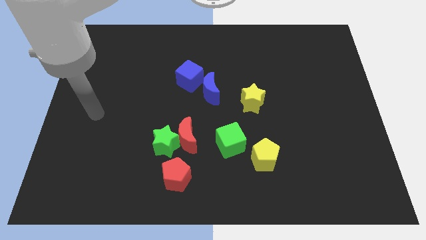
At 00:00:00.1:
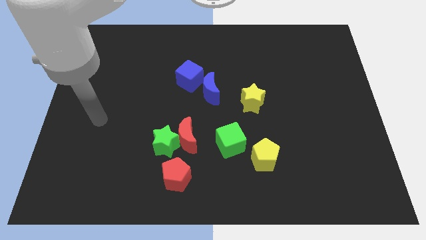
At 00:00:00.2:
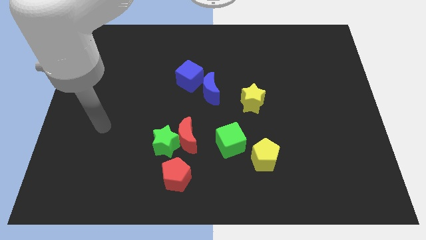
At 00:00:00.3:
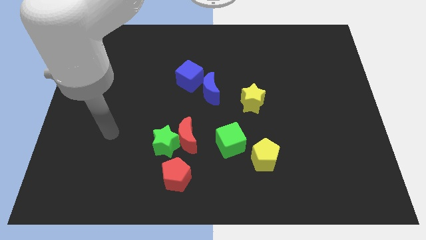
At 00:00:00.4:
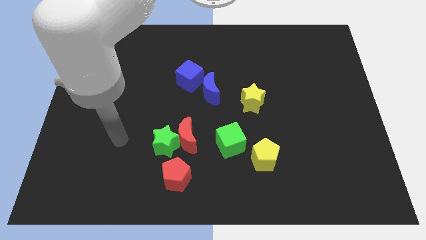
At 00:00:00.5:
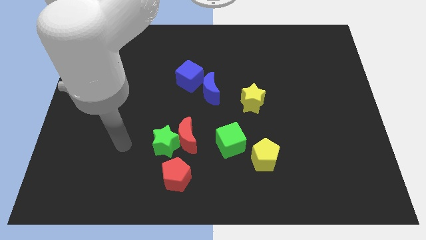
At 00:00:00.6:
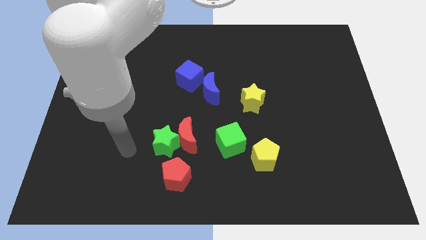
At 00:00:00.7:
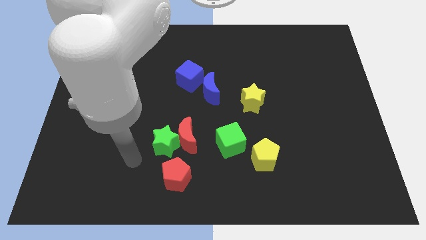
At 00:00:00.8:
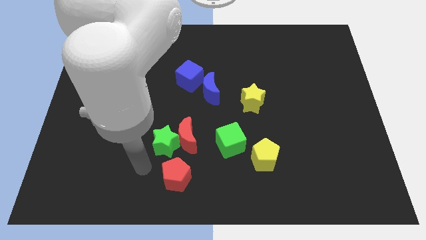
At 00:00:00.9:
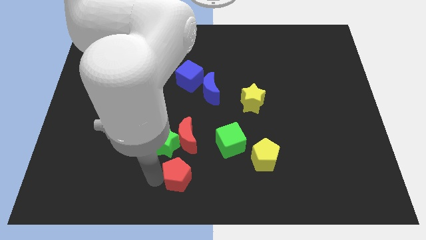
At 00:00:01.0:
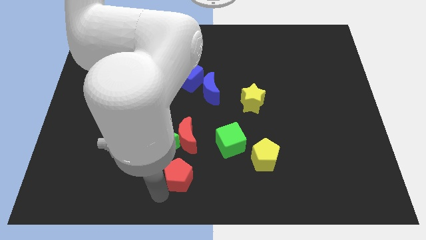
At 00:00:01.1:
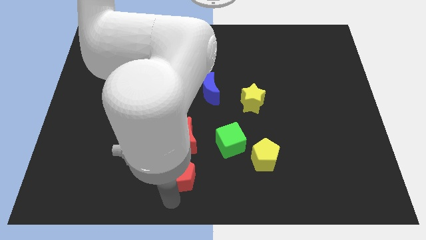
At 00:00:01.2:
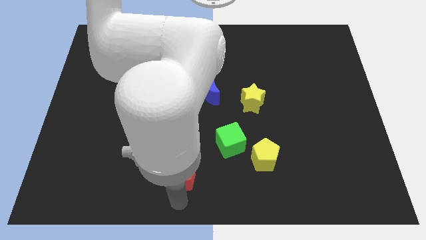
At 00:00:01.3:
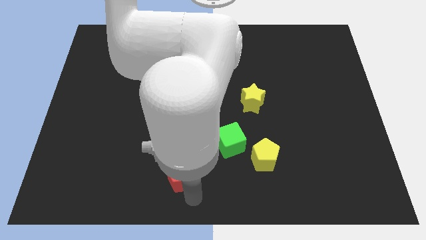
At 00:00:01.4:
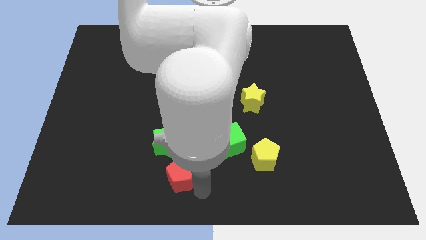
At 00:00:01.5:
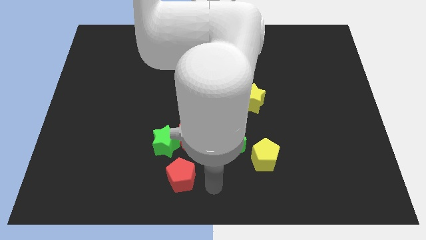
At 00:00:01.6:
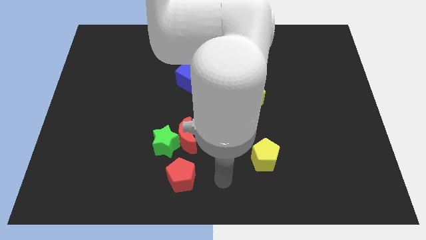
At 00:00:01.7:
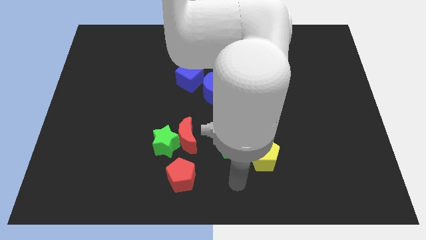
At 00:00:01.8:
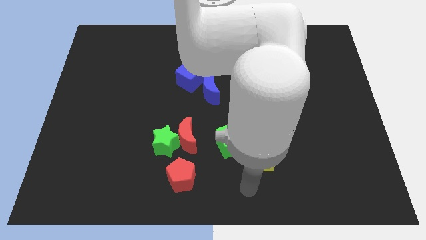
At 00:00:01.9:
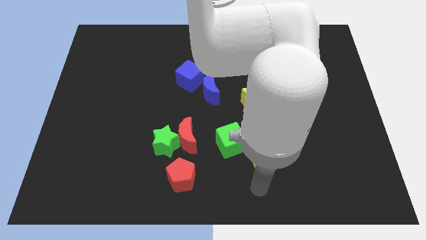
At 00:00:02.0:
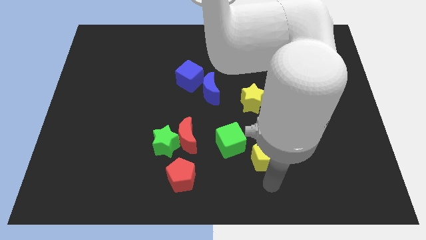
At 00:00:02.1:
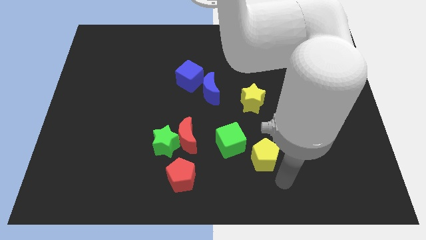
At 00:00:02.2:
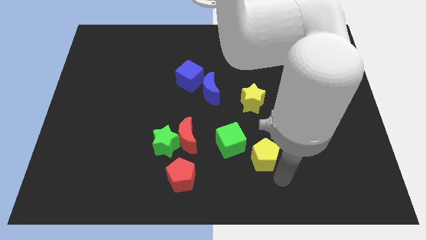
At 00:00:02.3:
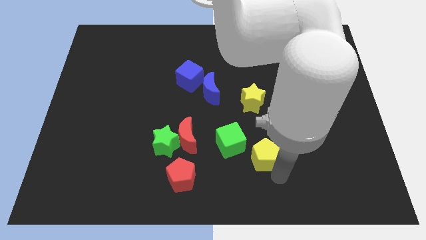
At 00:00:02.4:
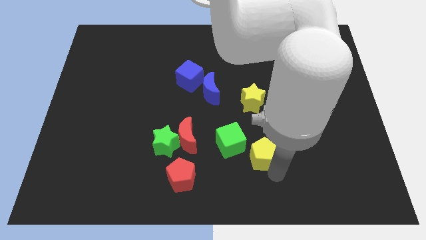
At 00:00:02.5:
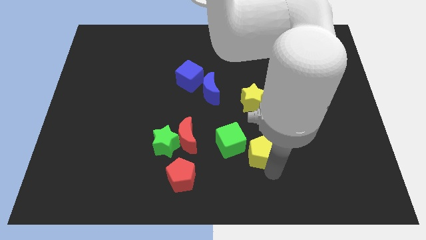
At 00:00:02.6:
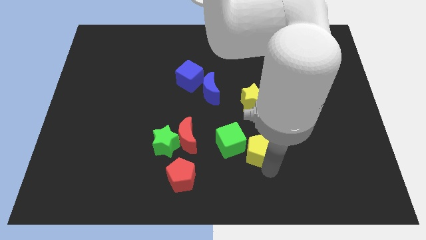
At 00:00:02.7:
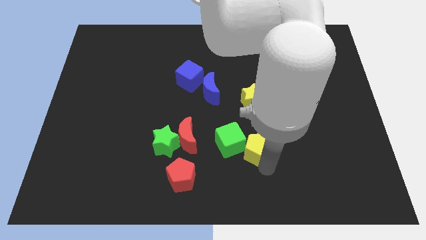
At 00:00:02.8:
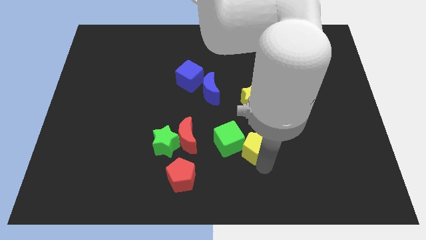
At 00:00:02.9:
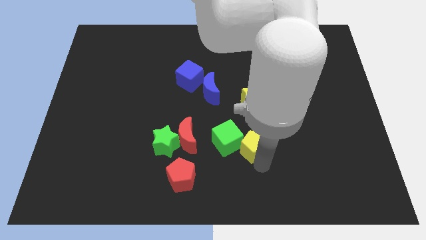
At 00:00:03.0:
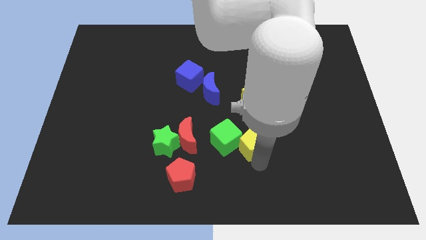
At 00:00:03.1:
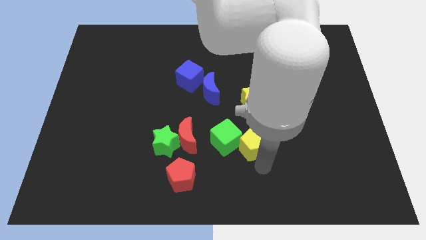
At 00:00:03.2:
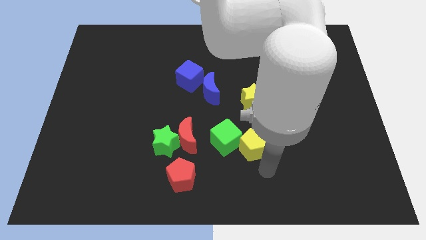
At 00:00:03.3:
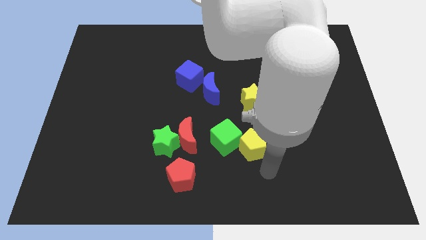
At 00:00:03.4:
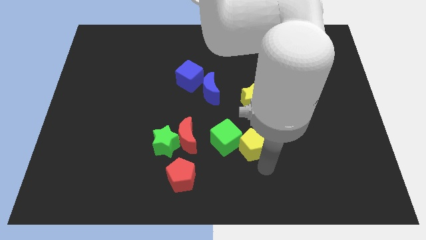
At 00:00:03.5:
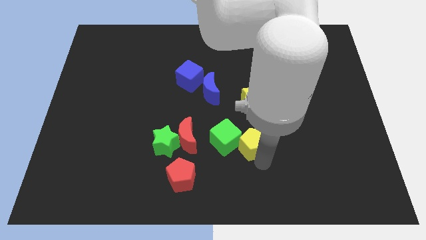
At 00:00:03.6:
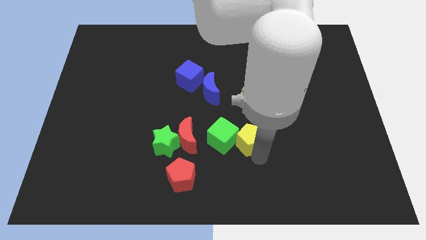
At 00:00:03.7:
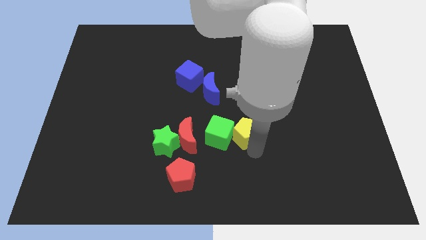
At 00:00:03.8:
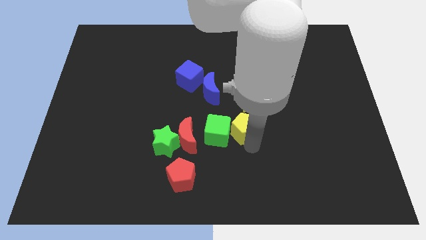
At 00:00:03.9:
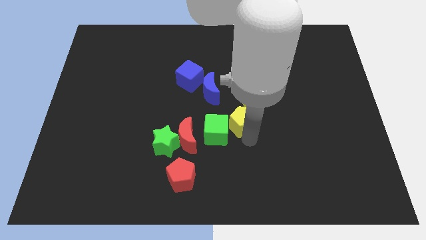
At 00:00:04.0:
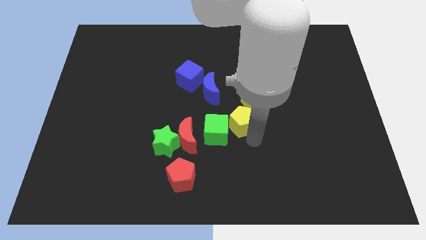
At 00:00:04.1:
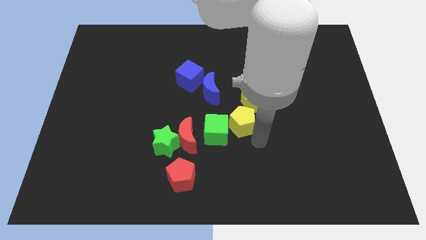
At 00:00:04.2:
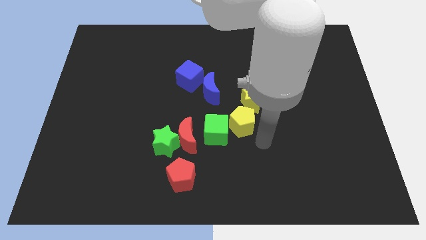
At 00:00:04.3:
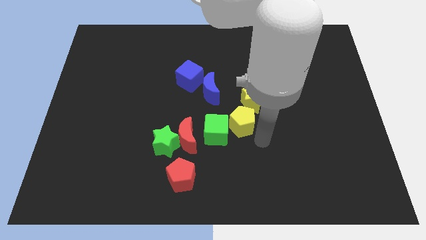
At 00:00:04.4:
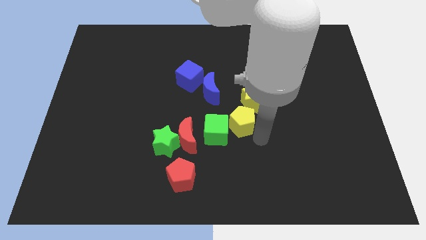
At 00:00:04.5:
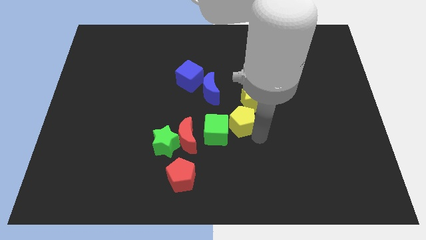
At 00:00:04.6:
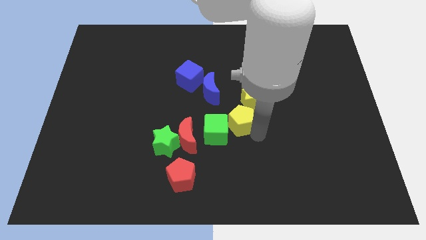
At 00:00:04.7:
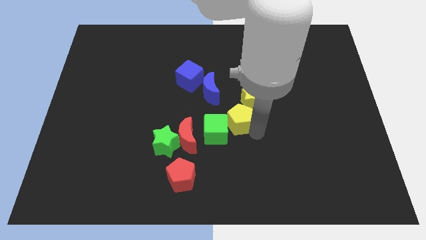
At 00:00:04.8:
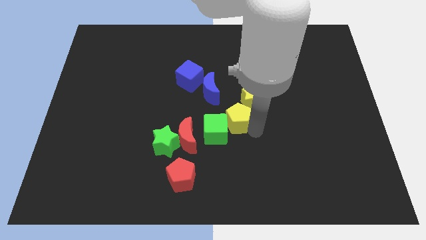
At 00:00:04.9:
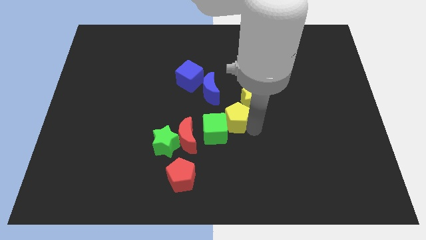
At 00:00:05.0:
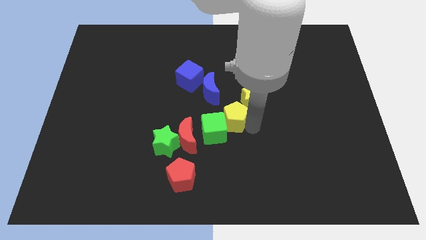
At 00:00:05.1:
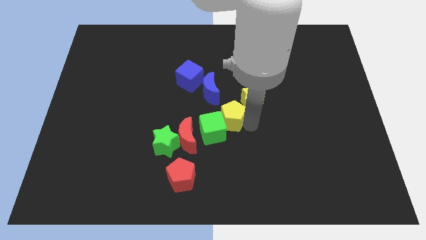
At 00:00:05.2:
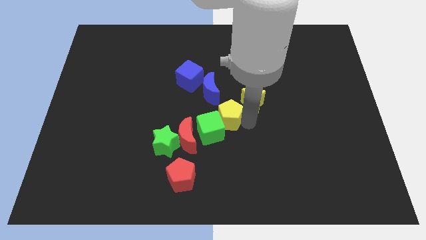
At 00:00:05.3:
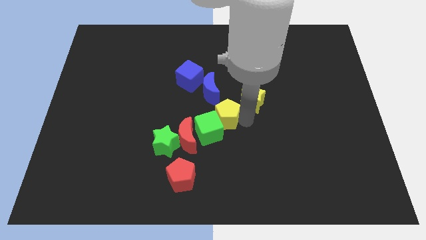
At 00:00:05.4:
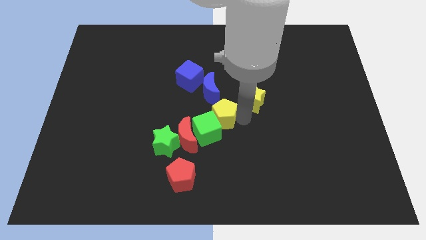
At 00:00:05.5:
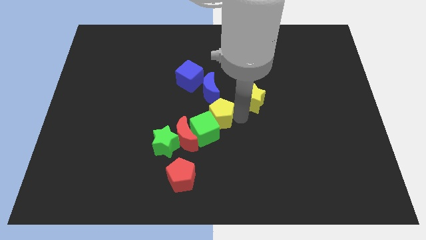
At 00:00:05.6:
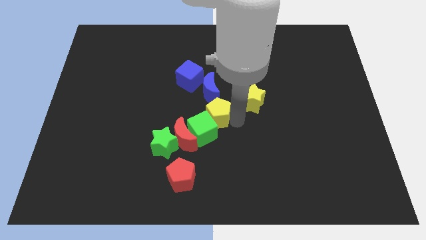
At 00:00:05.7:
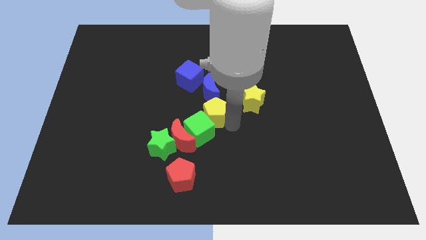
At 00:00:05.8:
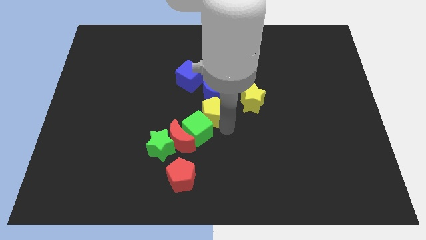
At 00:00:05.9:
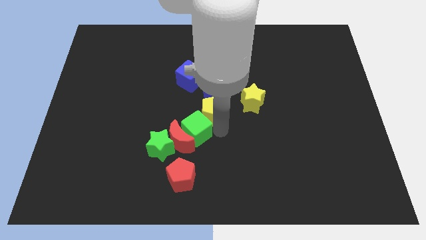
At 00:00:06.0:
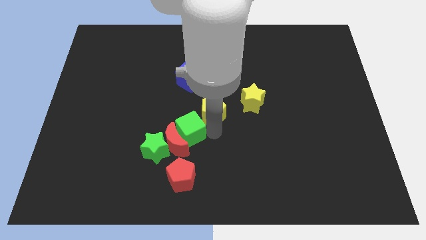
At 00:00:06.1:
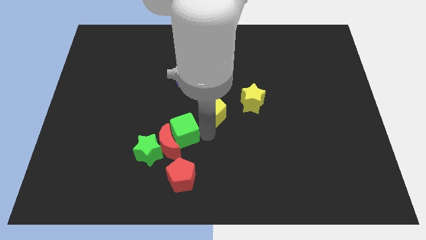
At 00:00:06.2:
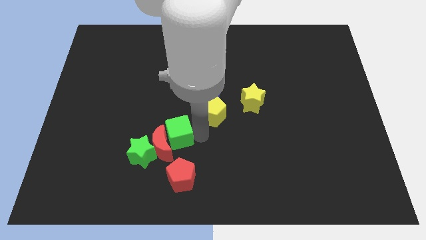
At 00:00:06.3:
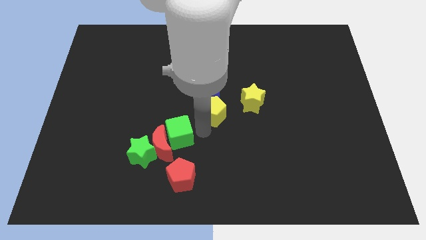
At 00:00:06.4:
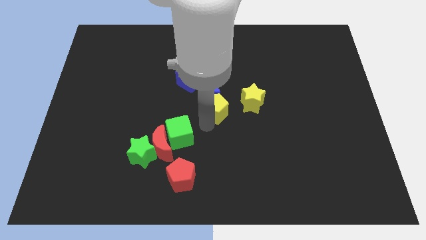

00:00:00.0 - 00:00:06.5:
slide the yellow pentagon next to the blue moon
